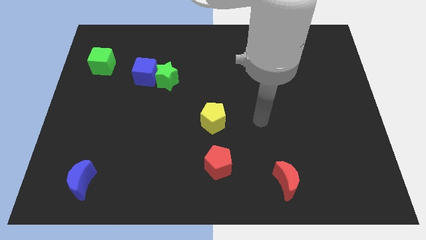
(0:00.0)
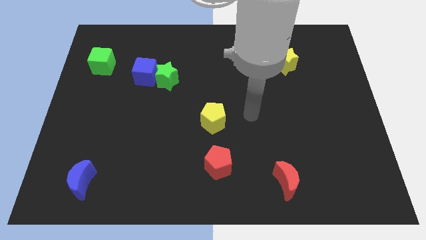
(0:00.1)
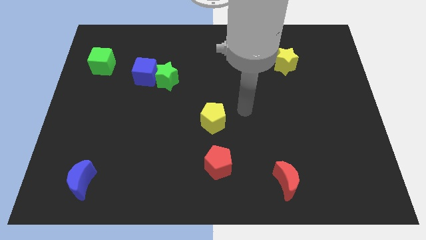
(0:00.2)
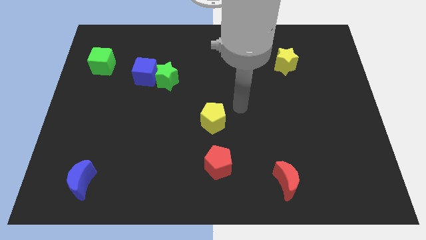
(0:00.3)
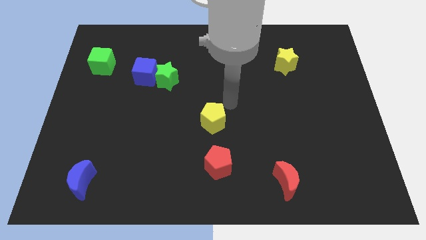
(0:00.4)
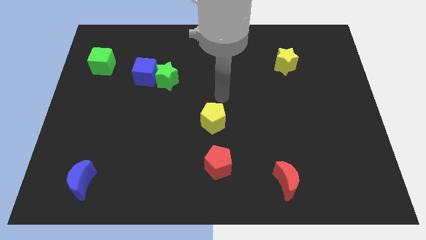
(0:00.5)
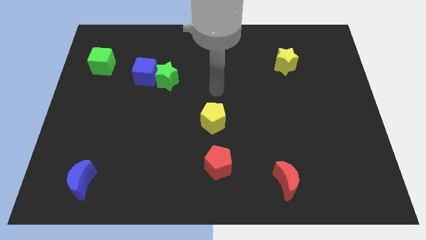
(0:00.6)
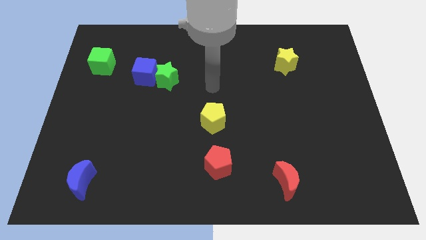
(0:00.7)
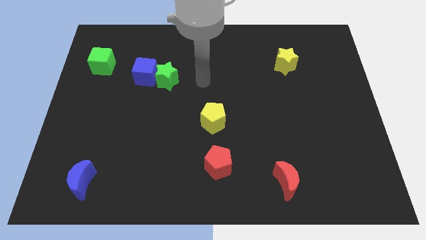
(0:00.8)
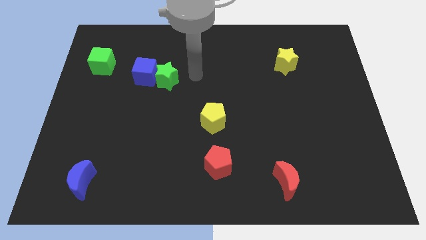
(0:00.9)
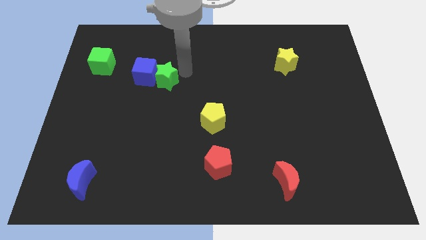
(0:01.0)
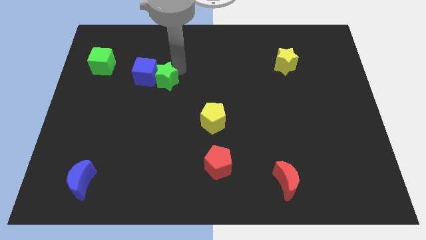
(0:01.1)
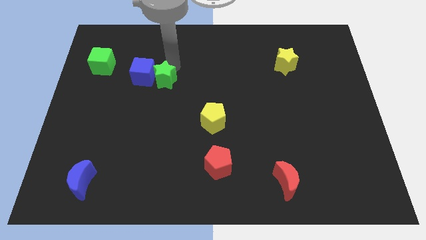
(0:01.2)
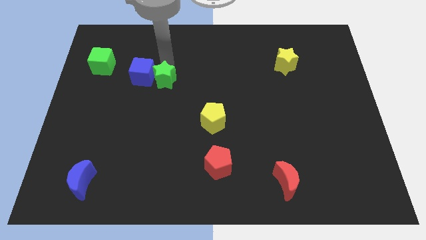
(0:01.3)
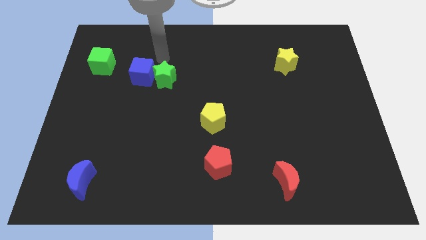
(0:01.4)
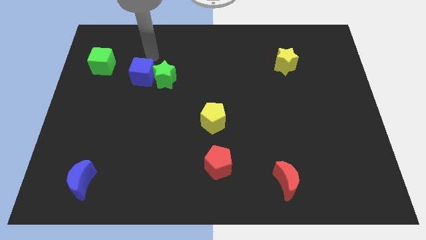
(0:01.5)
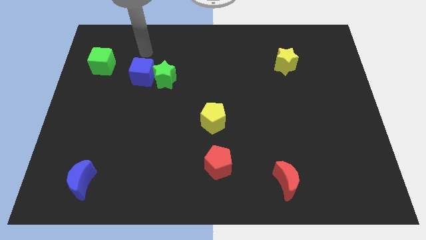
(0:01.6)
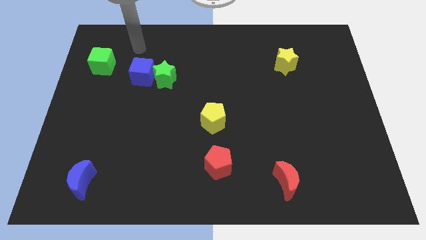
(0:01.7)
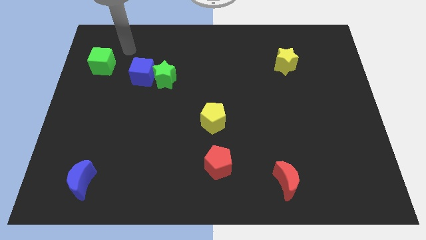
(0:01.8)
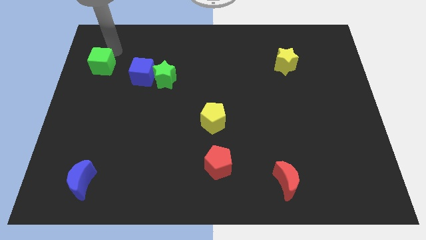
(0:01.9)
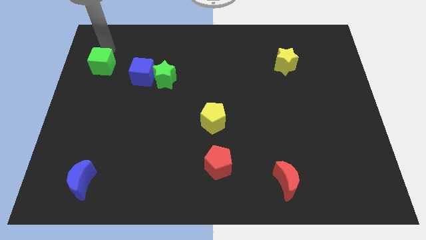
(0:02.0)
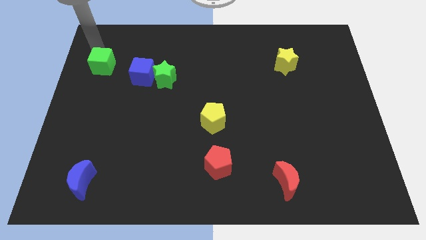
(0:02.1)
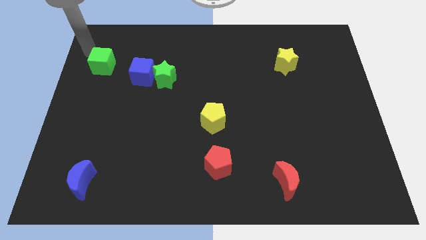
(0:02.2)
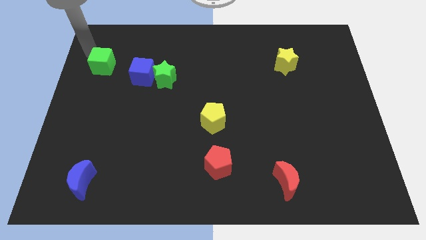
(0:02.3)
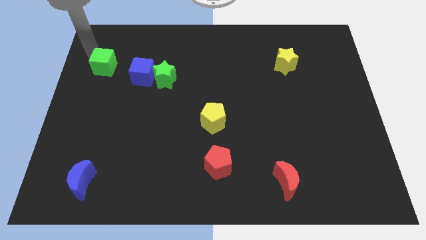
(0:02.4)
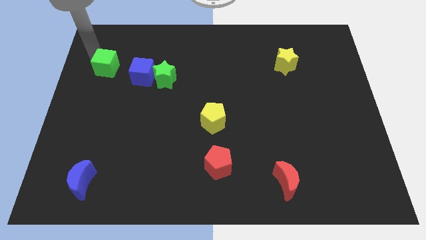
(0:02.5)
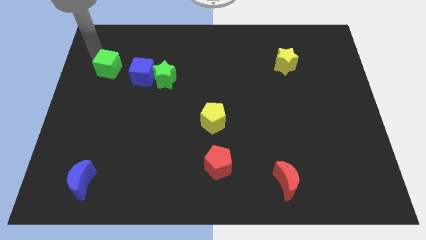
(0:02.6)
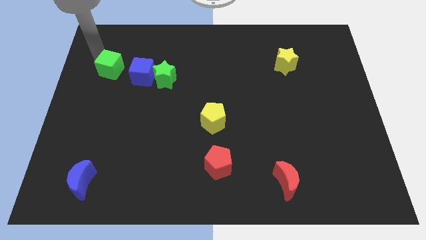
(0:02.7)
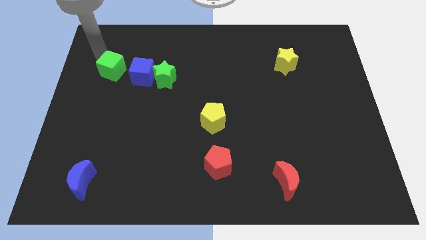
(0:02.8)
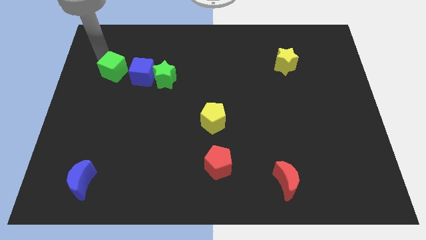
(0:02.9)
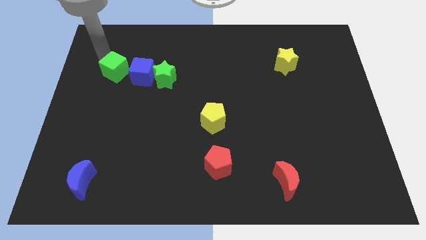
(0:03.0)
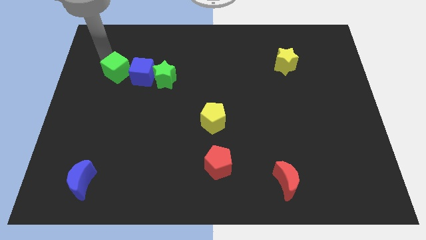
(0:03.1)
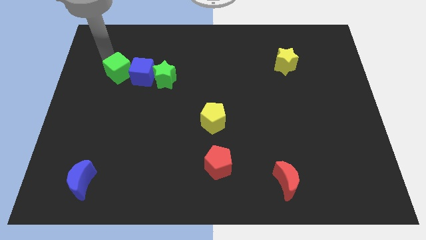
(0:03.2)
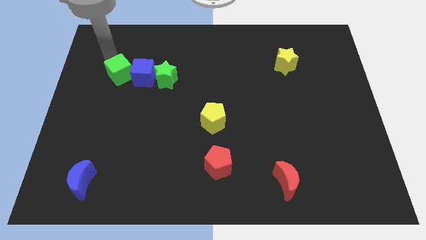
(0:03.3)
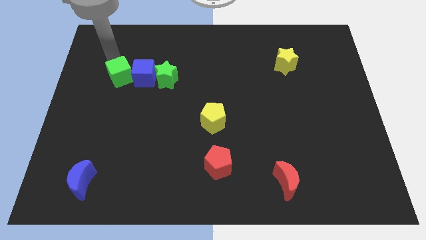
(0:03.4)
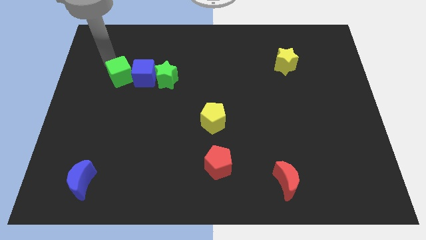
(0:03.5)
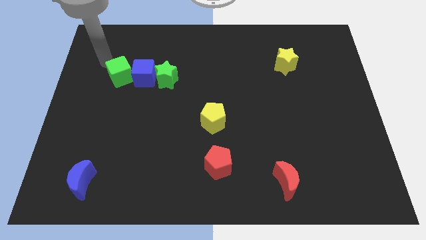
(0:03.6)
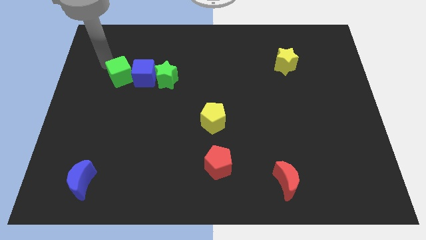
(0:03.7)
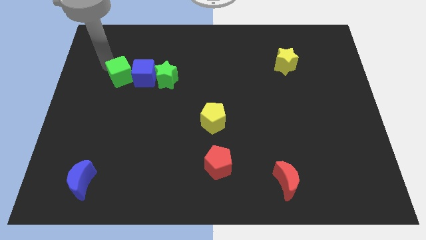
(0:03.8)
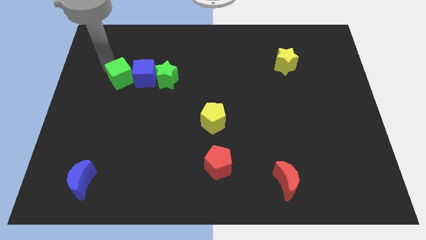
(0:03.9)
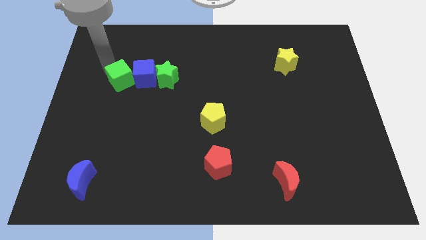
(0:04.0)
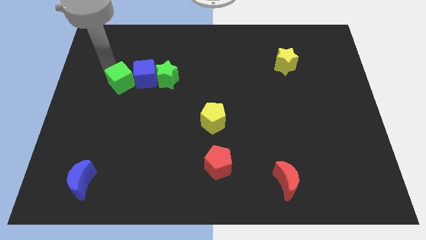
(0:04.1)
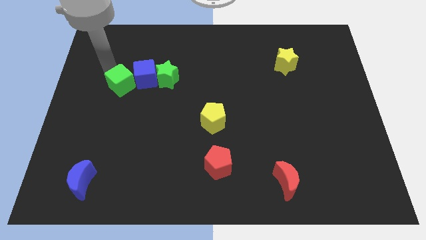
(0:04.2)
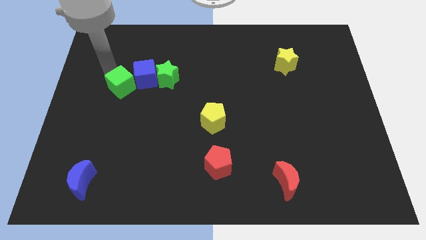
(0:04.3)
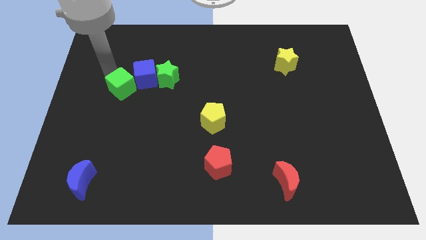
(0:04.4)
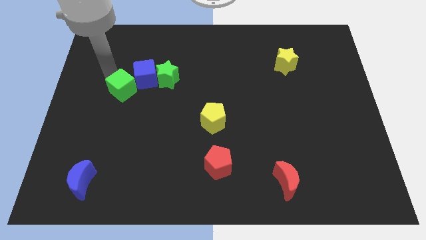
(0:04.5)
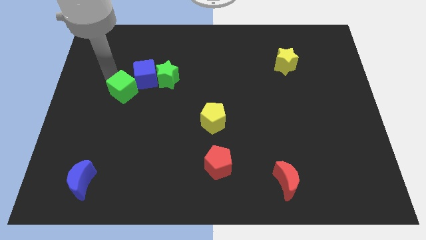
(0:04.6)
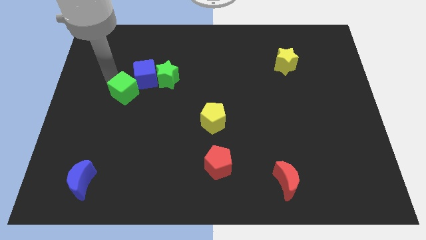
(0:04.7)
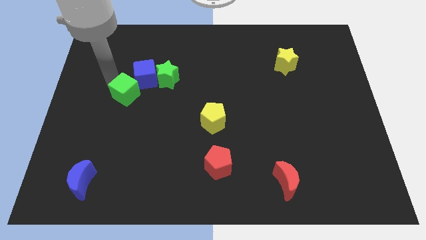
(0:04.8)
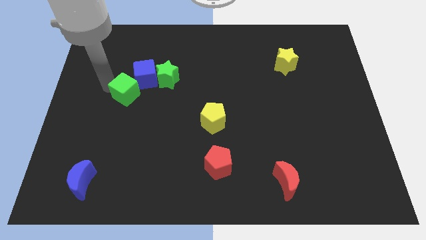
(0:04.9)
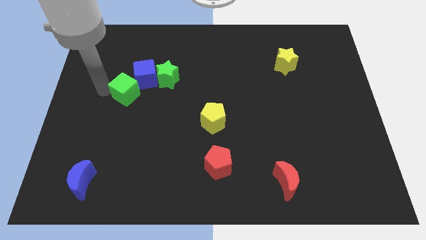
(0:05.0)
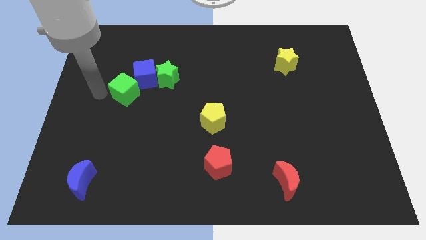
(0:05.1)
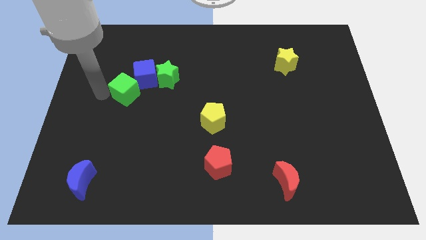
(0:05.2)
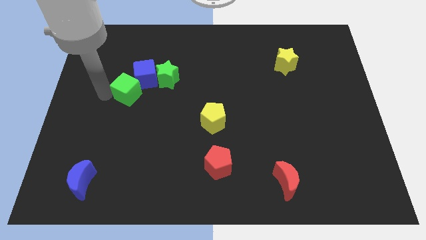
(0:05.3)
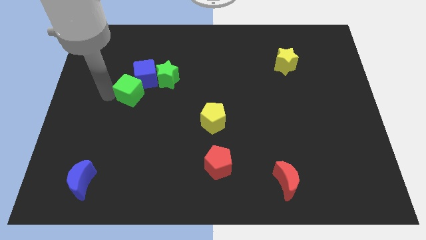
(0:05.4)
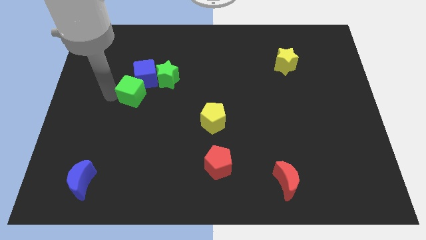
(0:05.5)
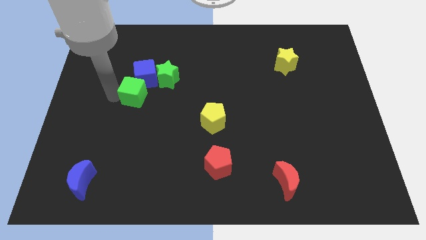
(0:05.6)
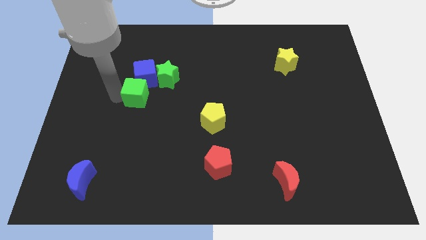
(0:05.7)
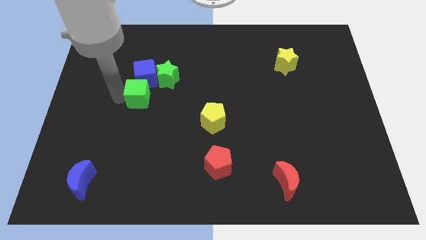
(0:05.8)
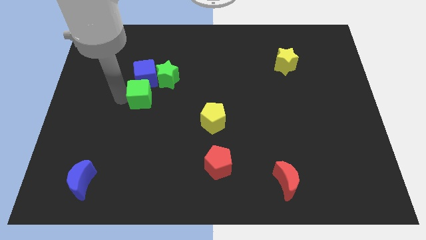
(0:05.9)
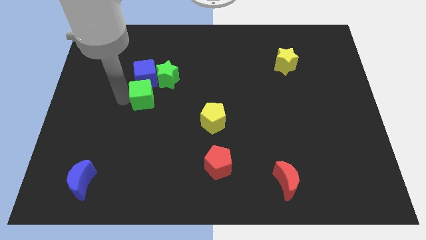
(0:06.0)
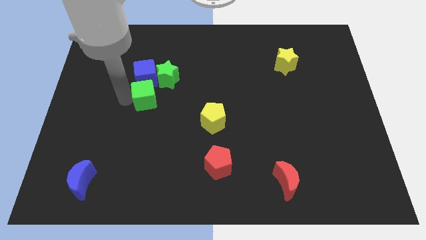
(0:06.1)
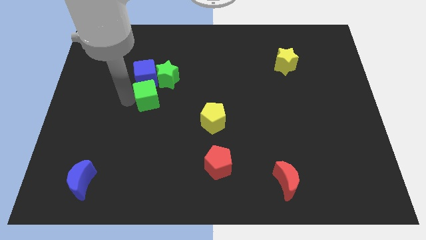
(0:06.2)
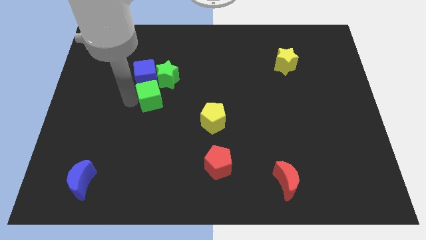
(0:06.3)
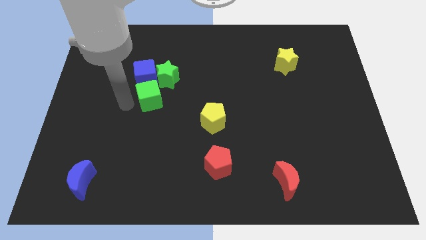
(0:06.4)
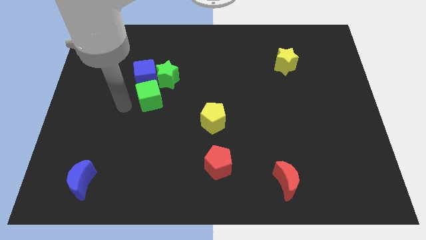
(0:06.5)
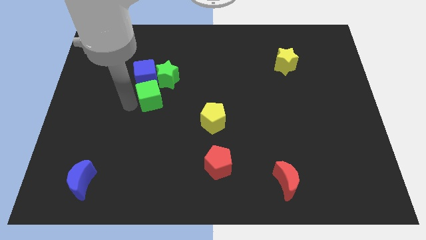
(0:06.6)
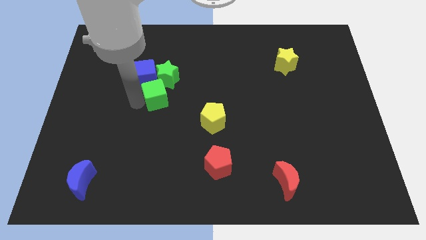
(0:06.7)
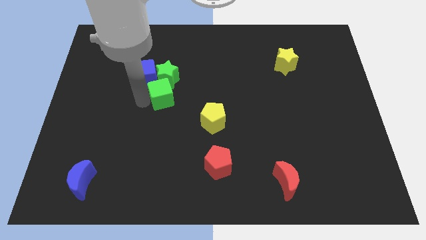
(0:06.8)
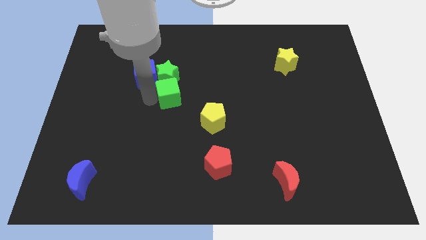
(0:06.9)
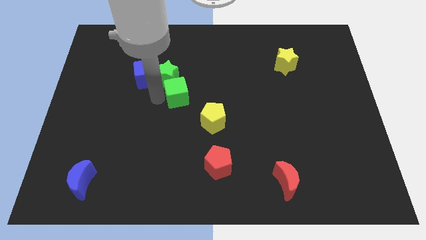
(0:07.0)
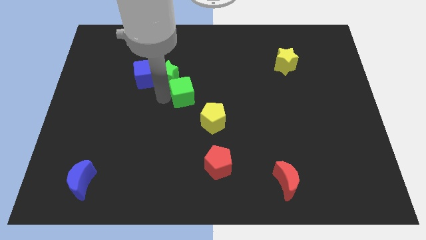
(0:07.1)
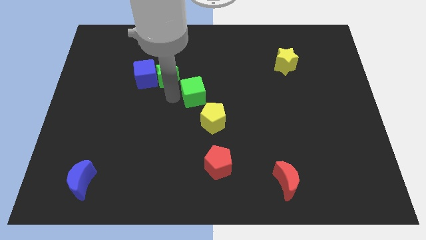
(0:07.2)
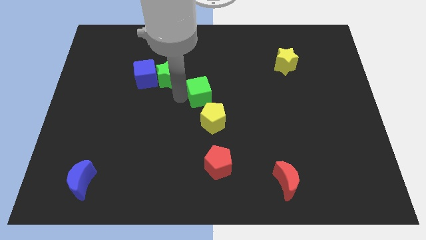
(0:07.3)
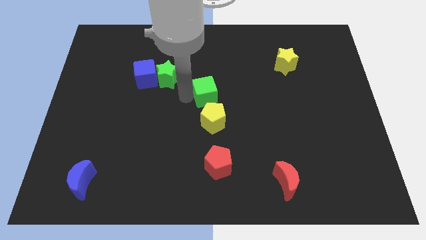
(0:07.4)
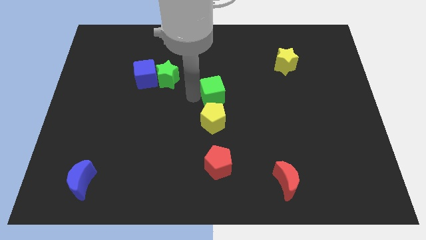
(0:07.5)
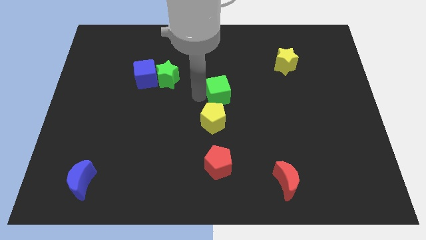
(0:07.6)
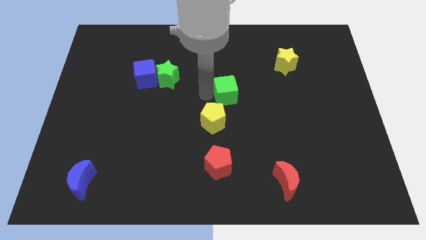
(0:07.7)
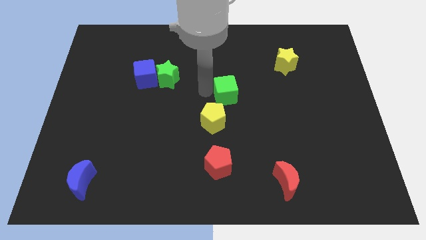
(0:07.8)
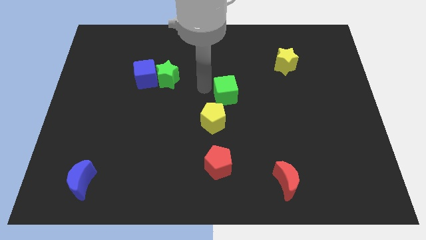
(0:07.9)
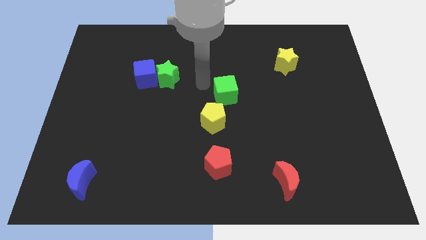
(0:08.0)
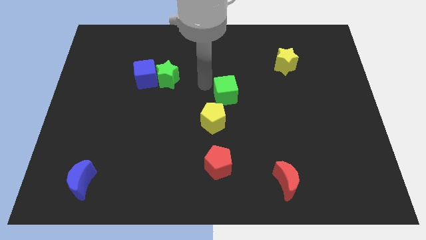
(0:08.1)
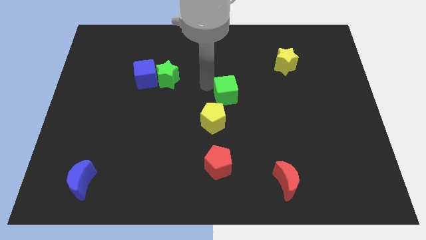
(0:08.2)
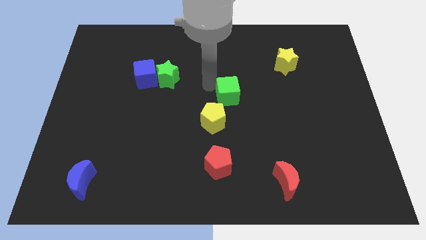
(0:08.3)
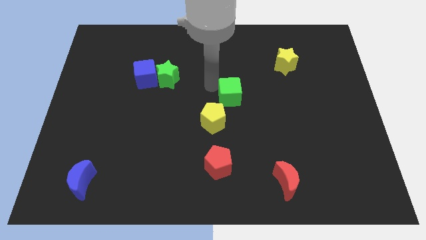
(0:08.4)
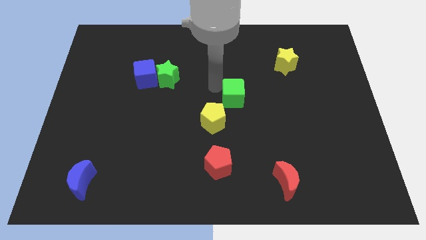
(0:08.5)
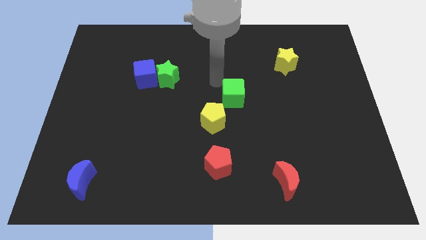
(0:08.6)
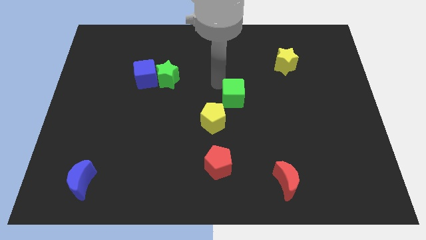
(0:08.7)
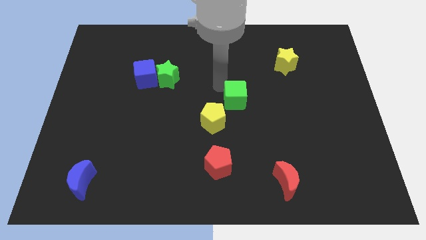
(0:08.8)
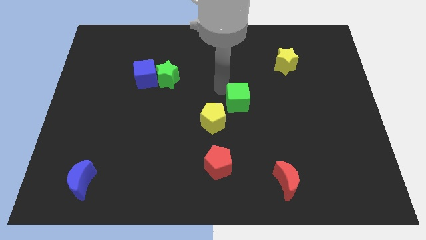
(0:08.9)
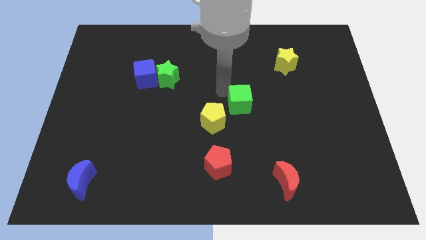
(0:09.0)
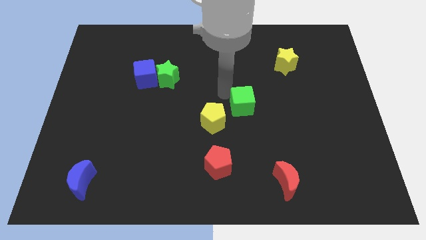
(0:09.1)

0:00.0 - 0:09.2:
put the green cube just right of the yellow pentagon
